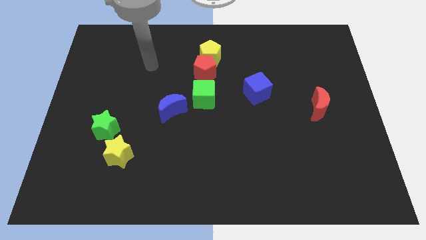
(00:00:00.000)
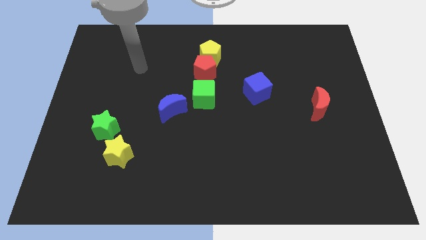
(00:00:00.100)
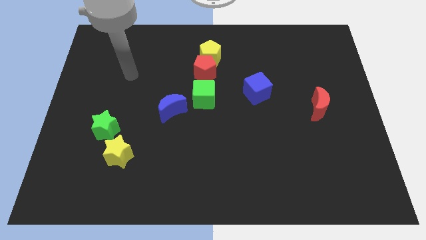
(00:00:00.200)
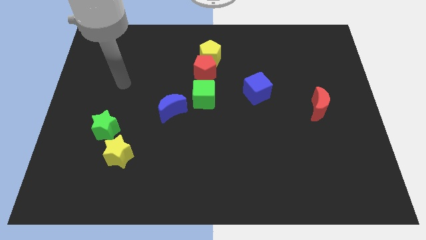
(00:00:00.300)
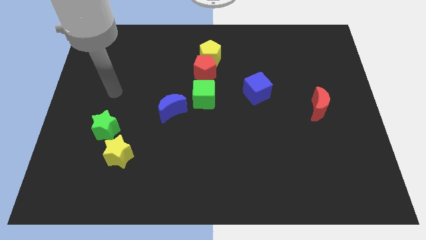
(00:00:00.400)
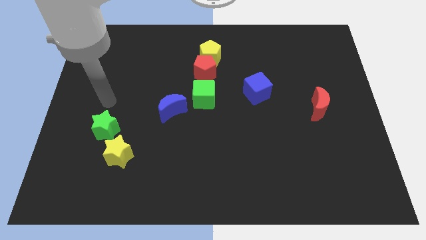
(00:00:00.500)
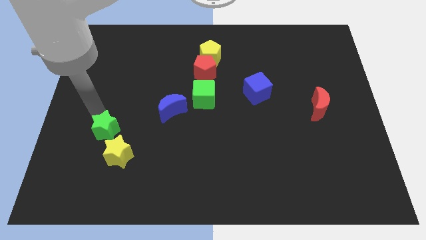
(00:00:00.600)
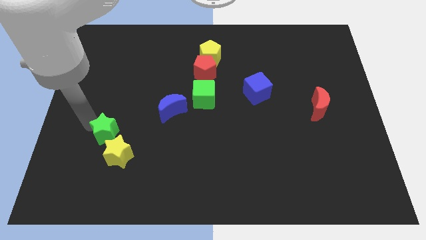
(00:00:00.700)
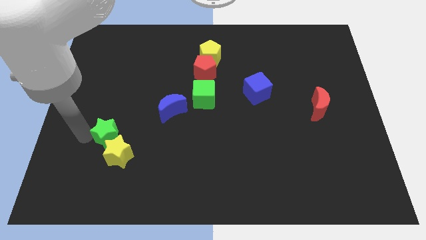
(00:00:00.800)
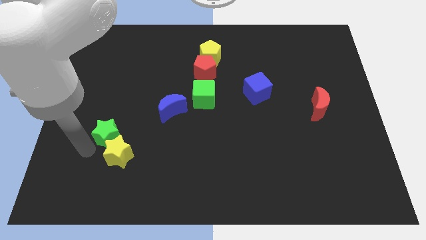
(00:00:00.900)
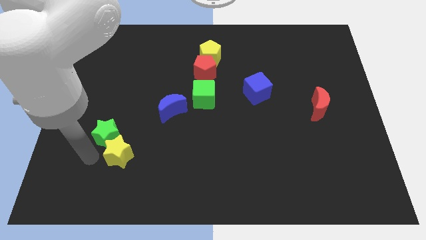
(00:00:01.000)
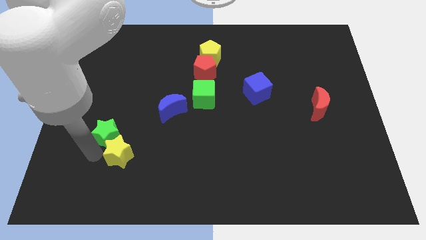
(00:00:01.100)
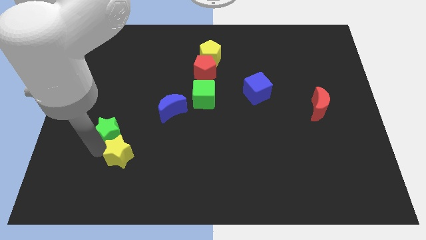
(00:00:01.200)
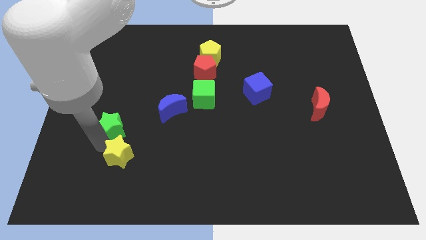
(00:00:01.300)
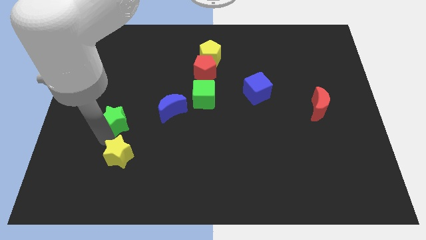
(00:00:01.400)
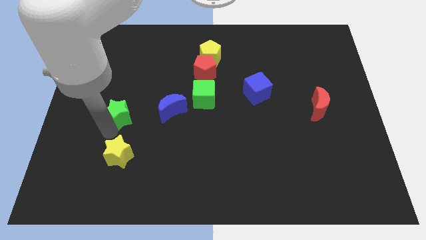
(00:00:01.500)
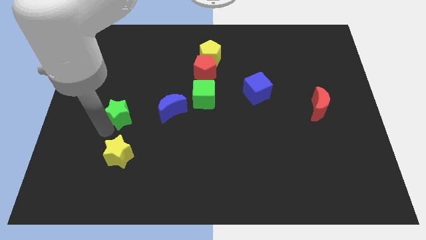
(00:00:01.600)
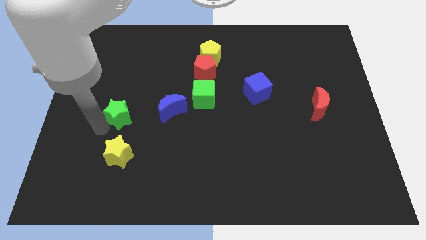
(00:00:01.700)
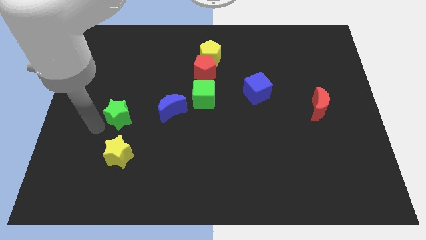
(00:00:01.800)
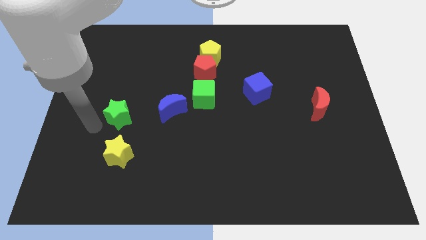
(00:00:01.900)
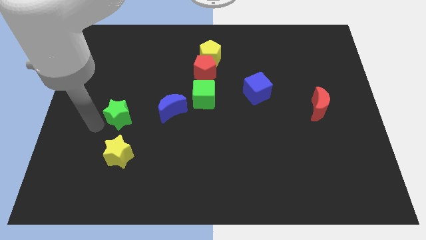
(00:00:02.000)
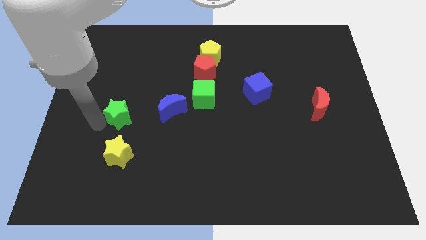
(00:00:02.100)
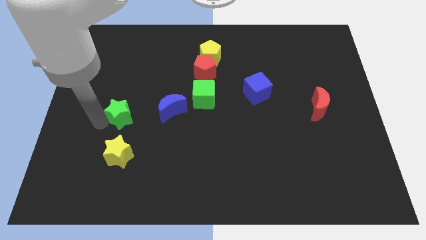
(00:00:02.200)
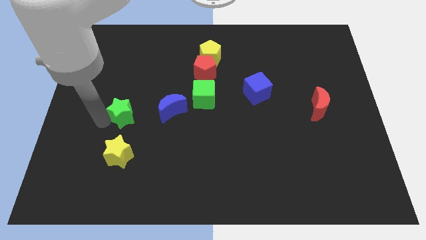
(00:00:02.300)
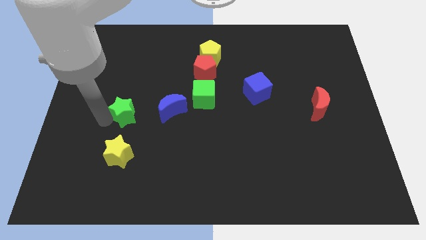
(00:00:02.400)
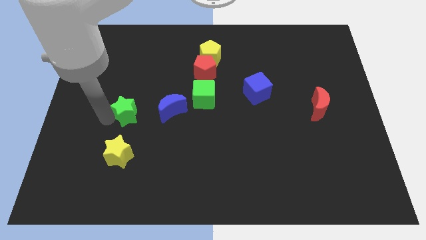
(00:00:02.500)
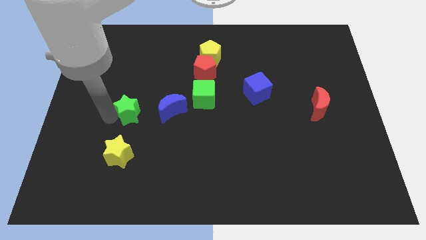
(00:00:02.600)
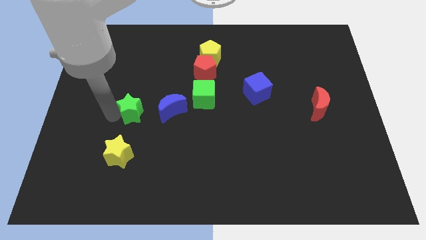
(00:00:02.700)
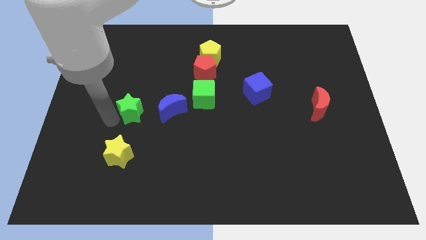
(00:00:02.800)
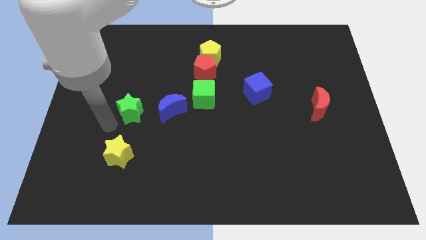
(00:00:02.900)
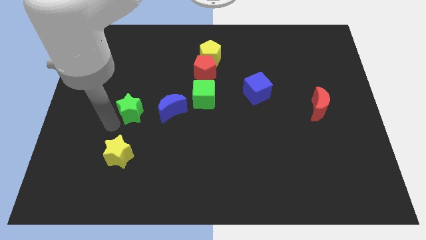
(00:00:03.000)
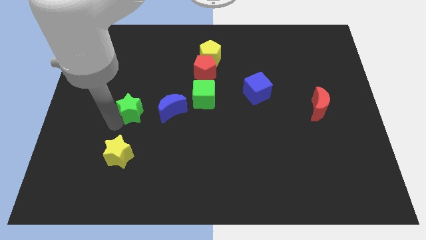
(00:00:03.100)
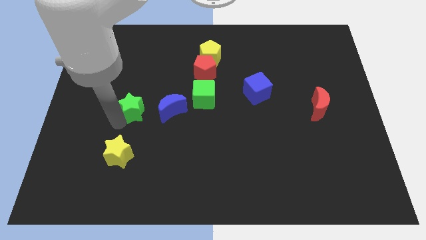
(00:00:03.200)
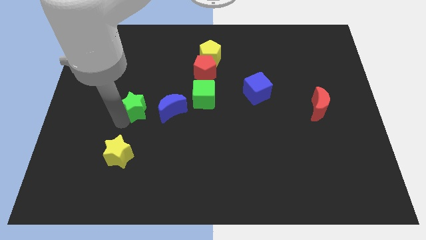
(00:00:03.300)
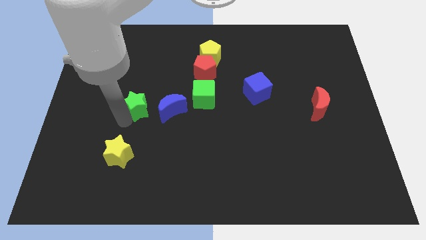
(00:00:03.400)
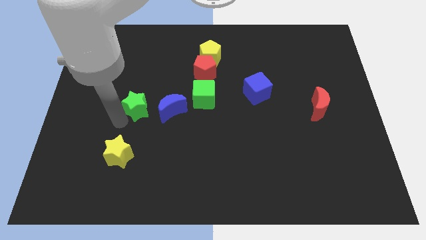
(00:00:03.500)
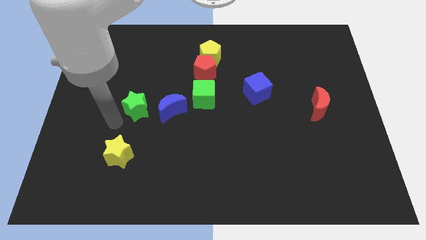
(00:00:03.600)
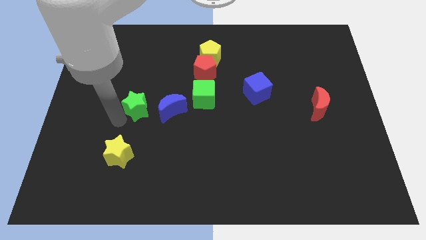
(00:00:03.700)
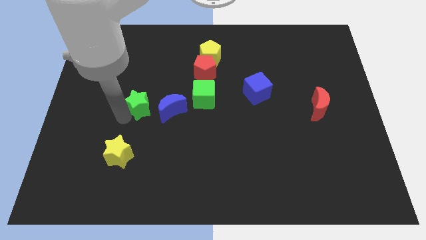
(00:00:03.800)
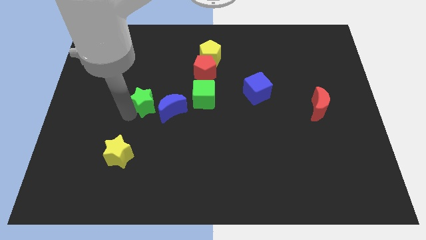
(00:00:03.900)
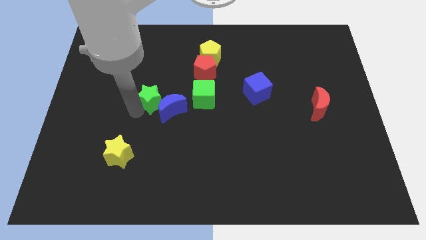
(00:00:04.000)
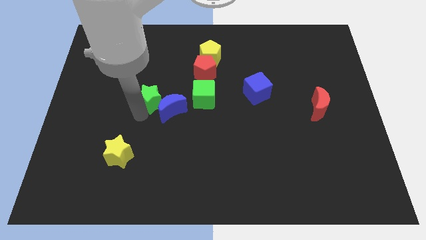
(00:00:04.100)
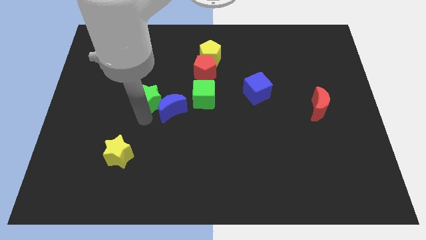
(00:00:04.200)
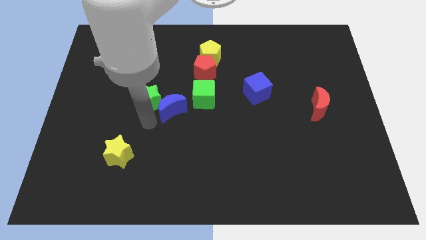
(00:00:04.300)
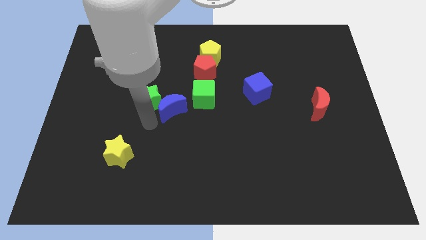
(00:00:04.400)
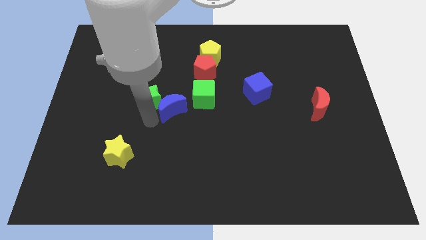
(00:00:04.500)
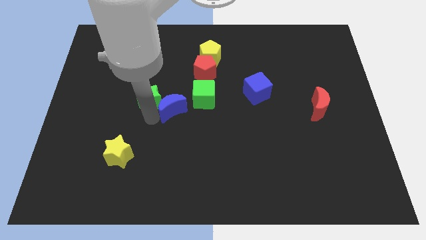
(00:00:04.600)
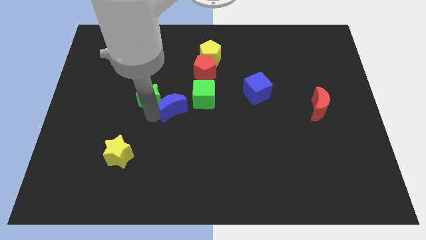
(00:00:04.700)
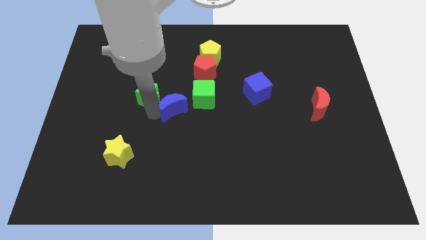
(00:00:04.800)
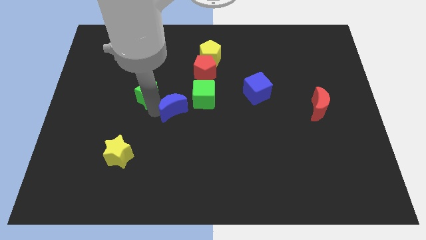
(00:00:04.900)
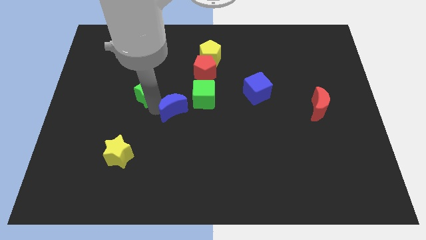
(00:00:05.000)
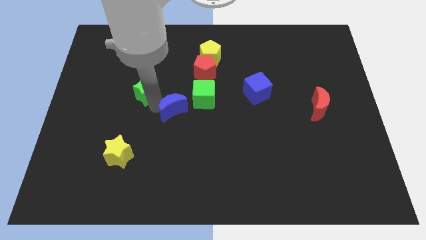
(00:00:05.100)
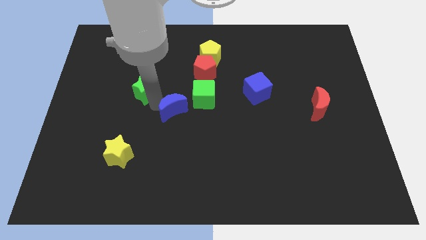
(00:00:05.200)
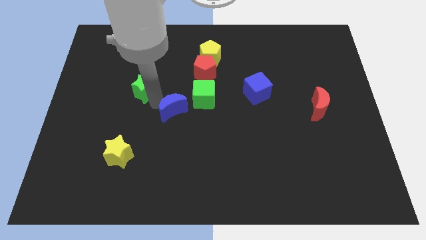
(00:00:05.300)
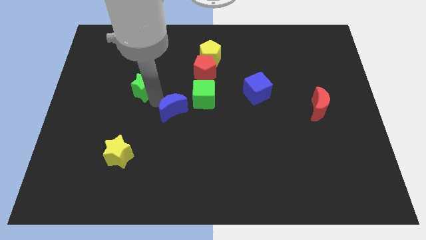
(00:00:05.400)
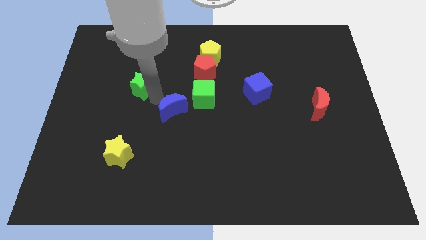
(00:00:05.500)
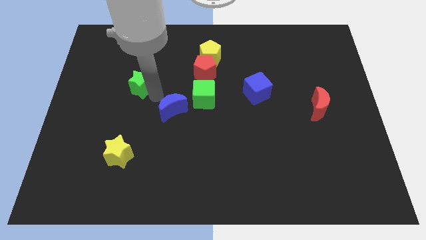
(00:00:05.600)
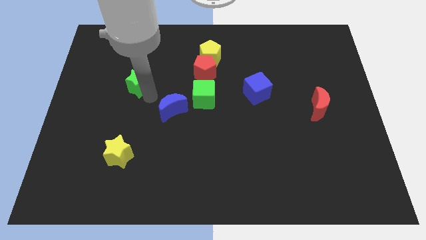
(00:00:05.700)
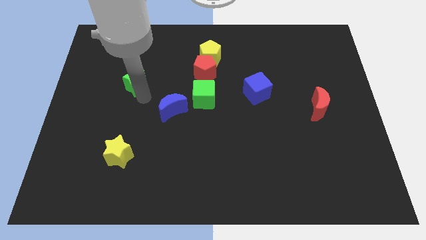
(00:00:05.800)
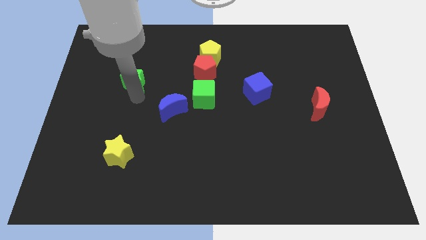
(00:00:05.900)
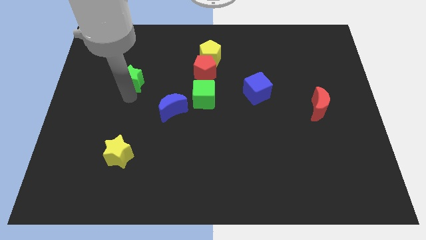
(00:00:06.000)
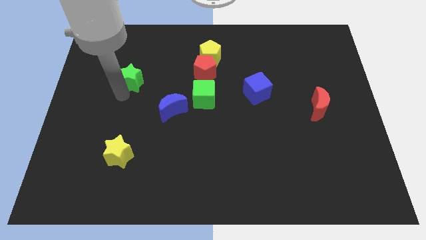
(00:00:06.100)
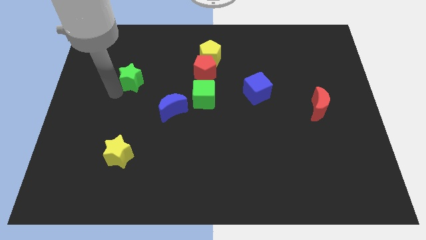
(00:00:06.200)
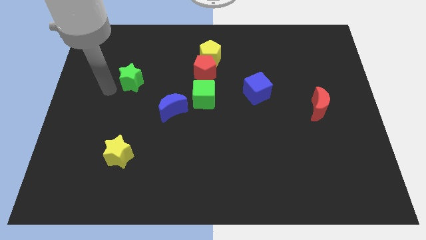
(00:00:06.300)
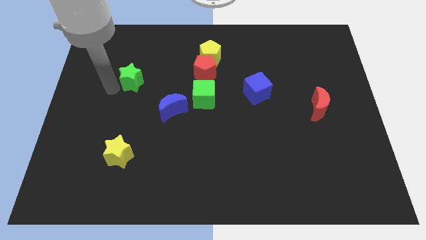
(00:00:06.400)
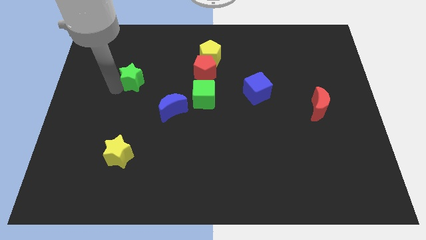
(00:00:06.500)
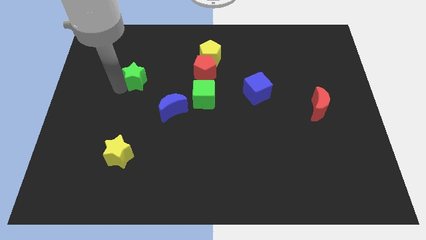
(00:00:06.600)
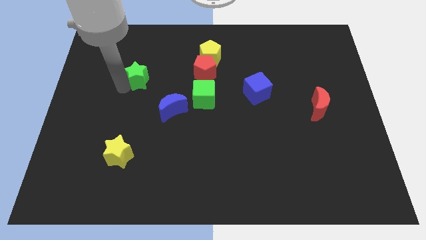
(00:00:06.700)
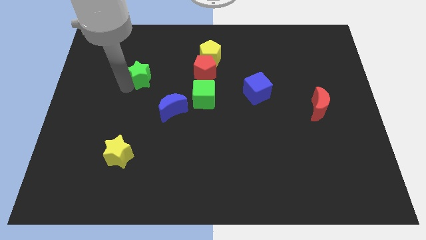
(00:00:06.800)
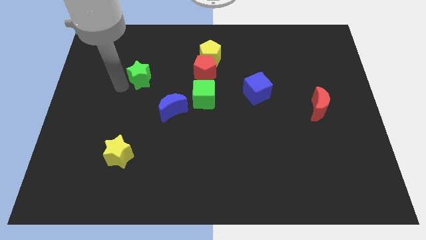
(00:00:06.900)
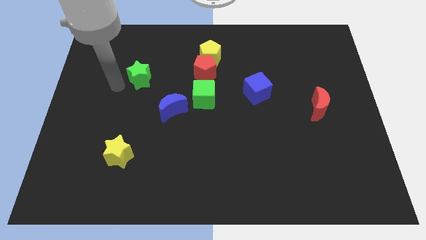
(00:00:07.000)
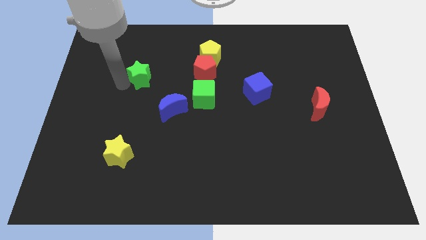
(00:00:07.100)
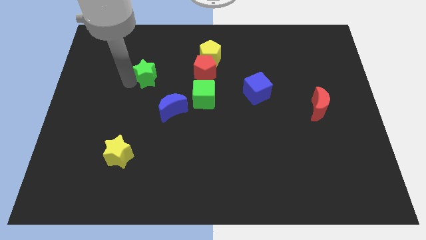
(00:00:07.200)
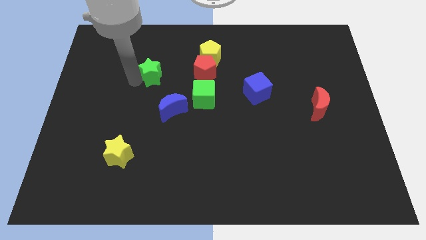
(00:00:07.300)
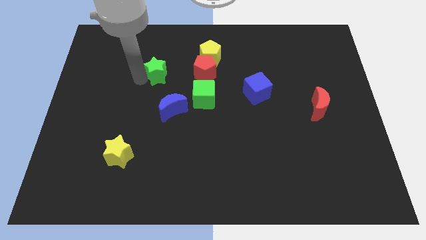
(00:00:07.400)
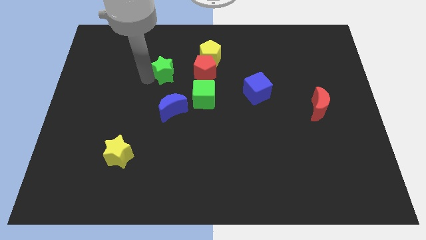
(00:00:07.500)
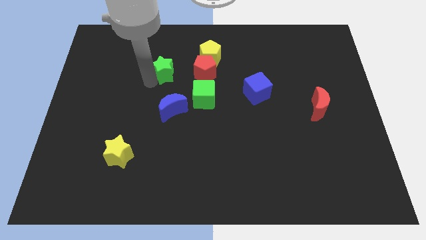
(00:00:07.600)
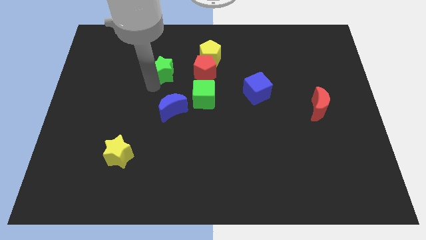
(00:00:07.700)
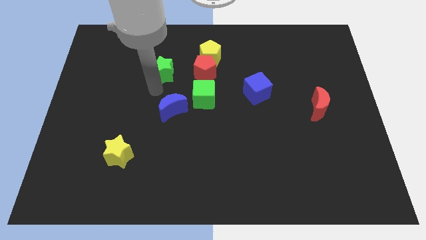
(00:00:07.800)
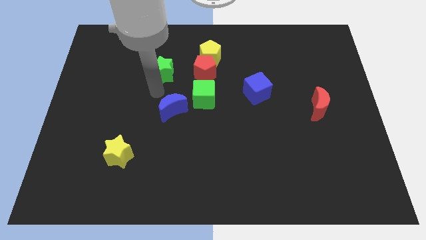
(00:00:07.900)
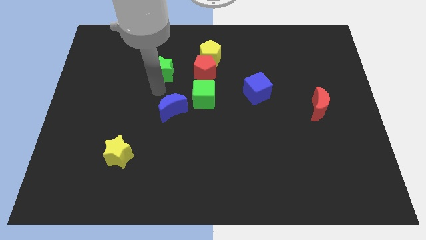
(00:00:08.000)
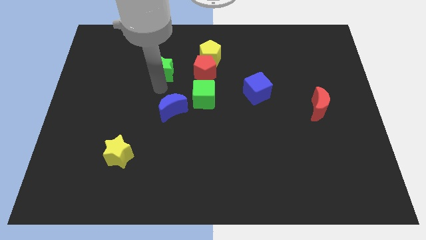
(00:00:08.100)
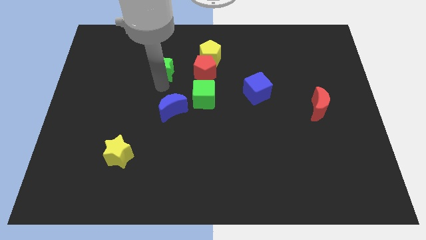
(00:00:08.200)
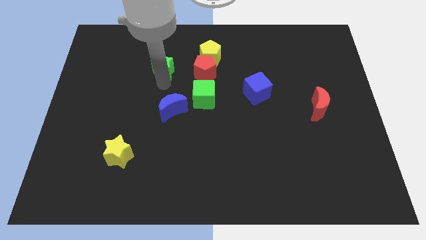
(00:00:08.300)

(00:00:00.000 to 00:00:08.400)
slide the green star to the left side of the yellow pentagon
